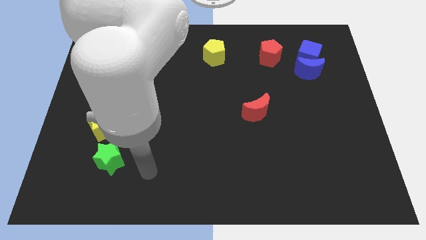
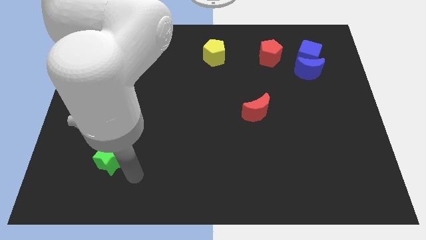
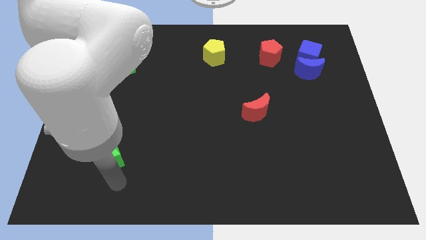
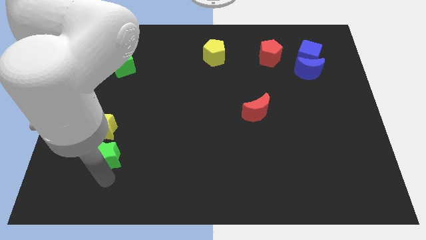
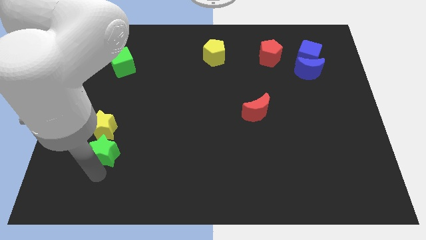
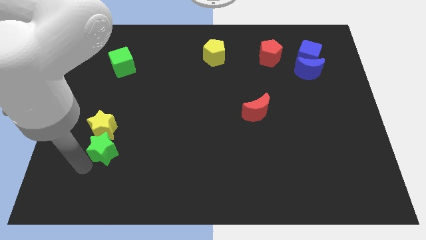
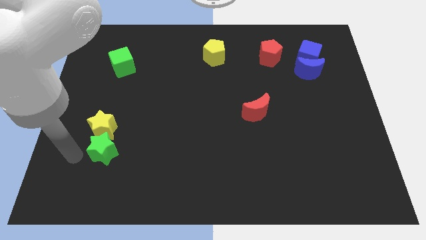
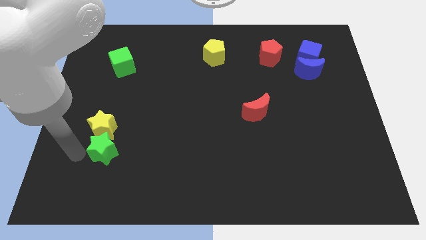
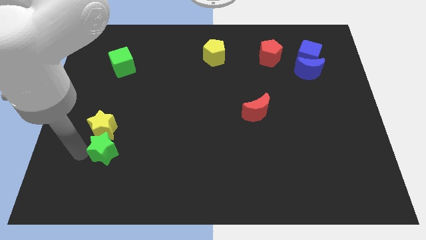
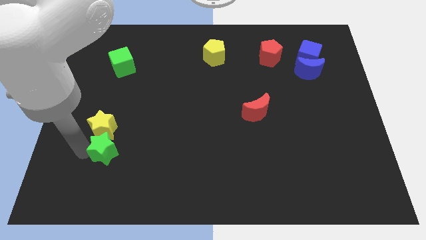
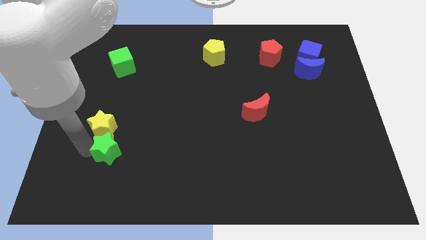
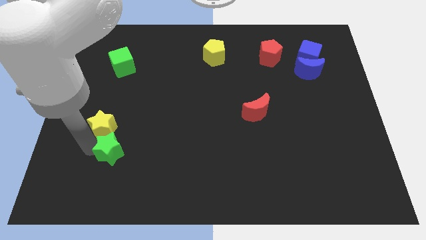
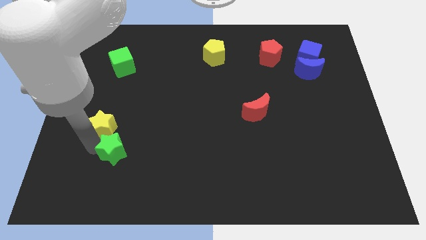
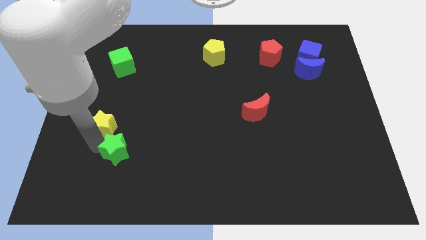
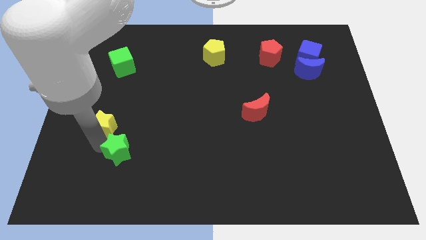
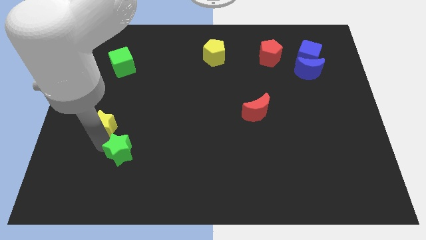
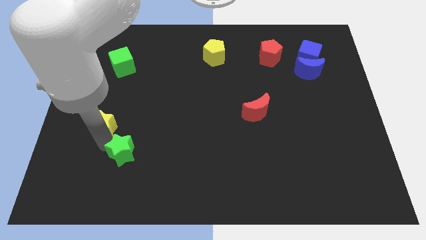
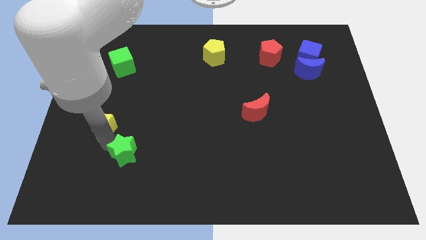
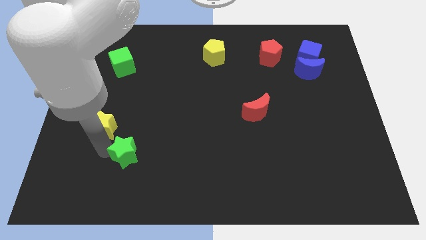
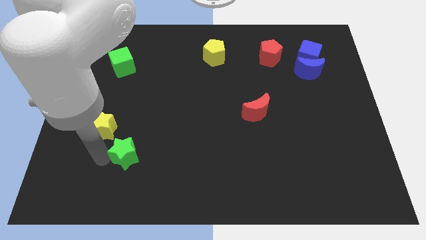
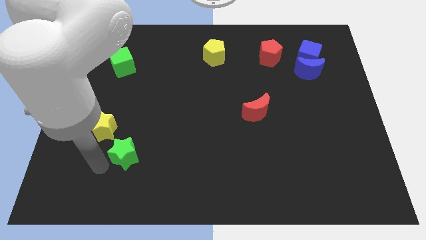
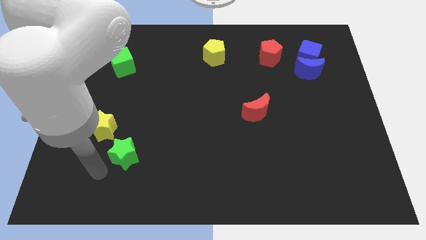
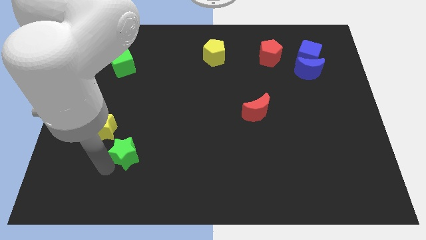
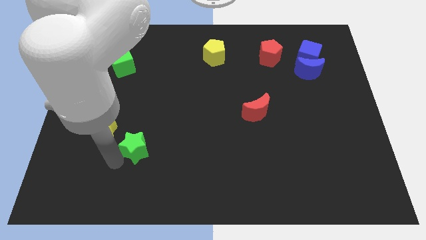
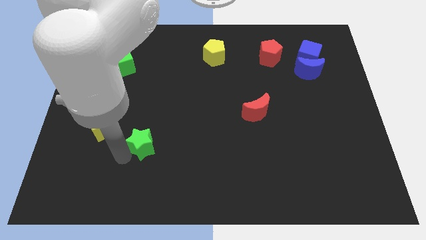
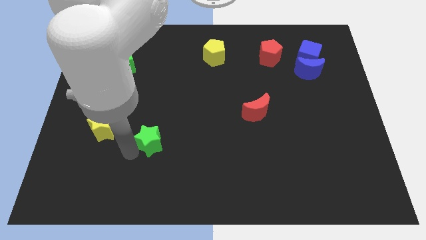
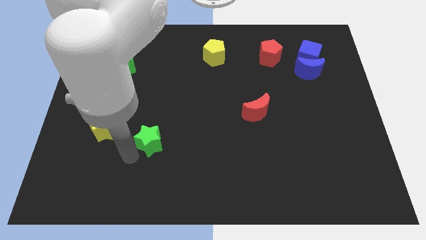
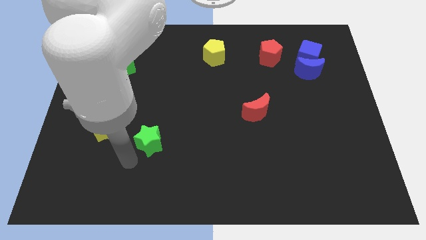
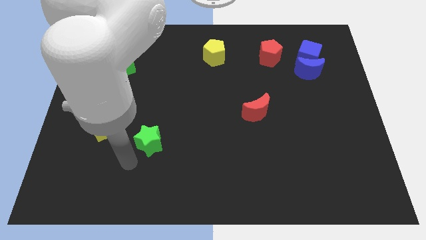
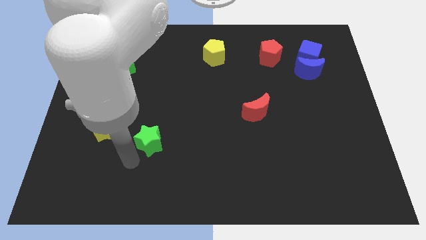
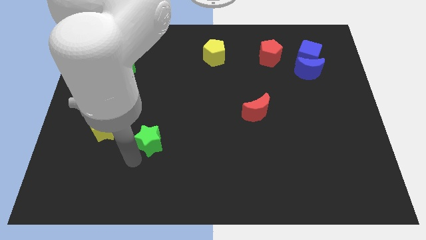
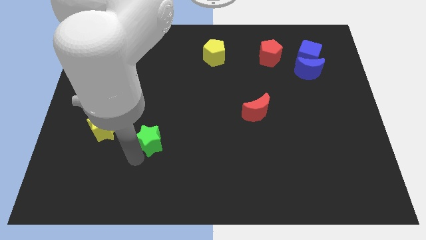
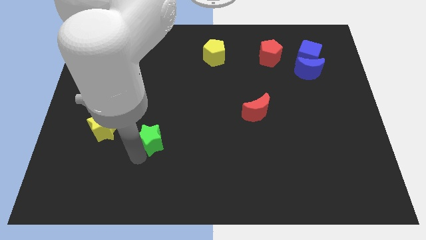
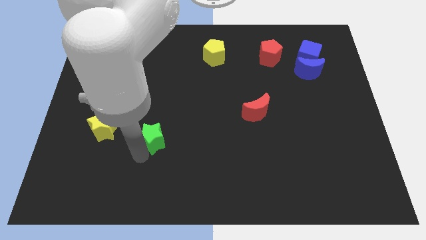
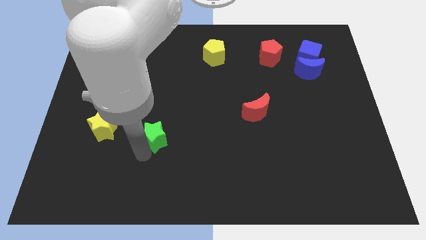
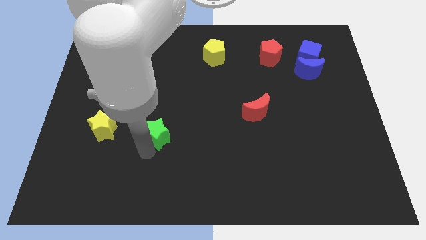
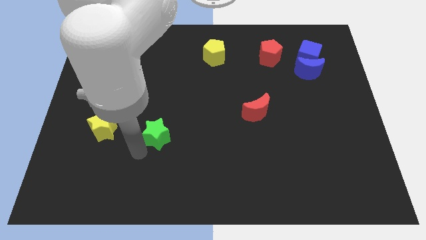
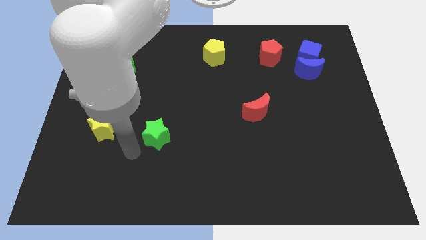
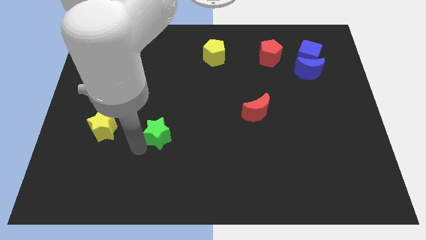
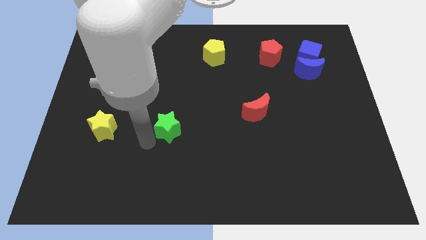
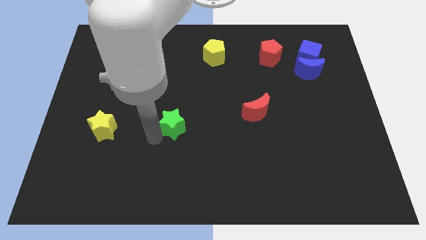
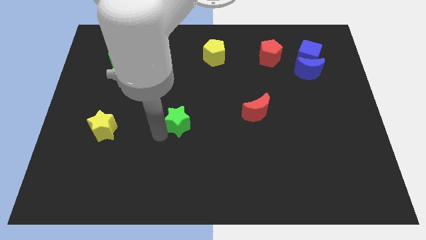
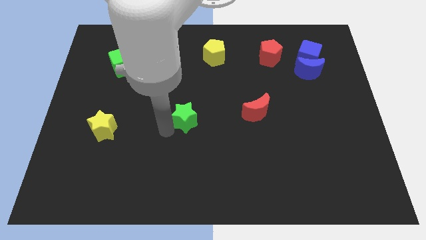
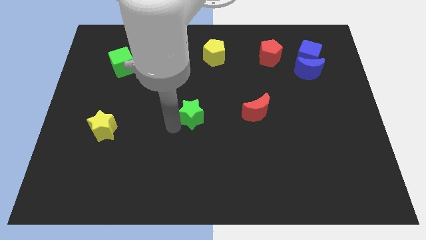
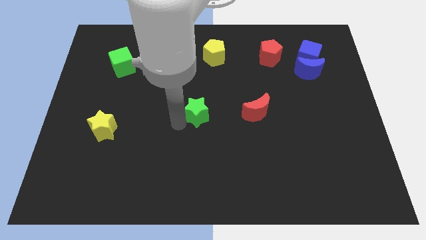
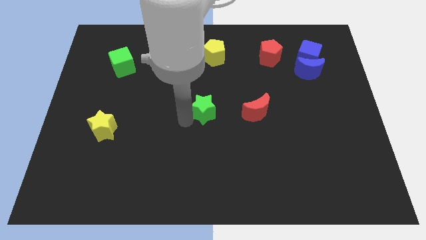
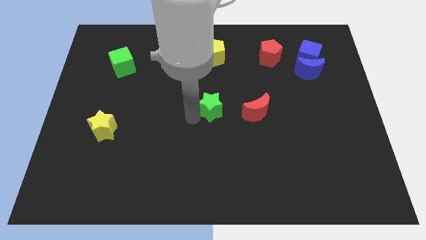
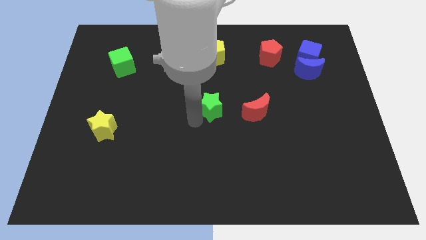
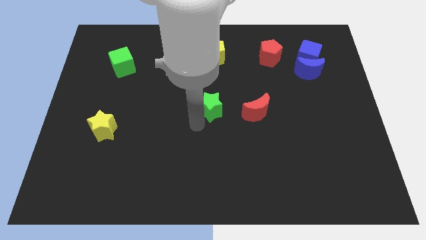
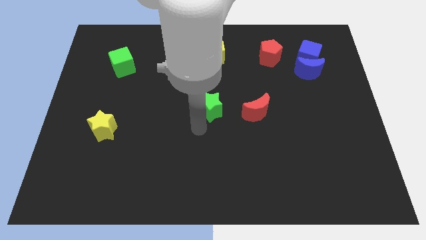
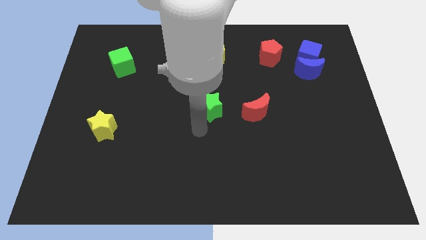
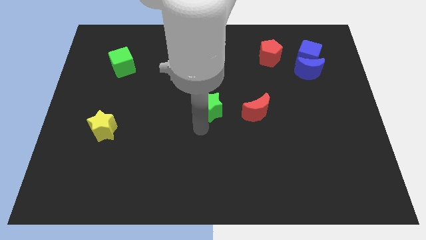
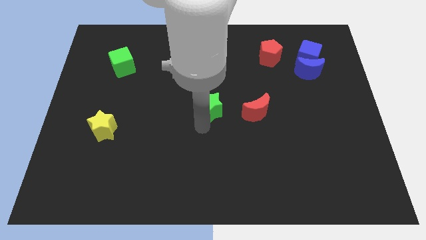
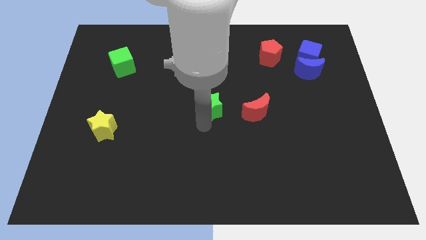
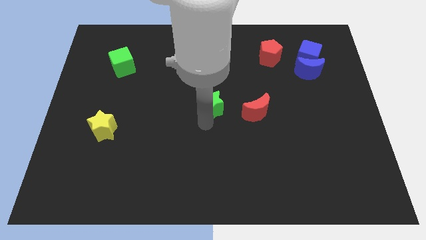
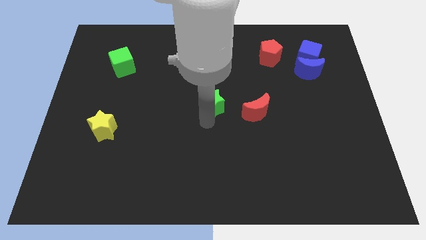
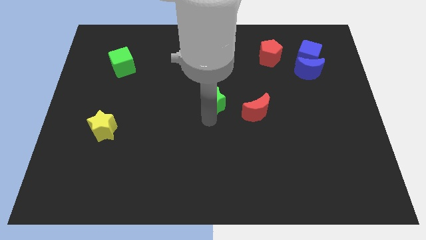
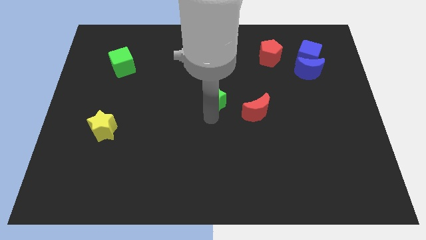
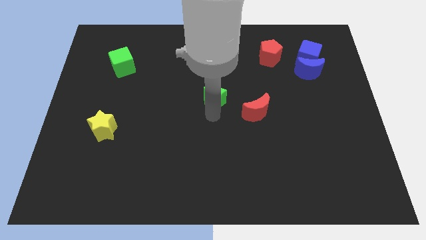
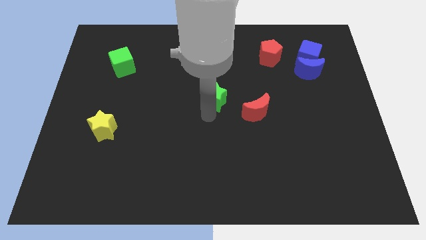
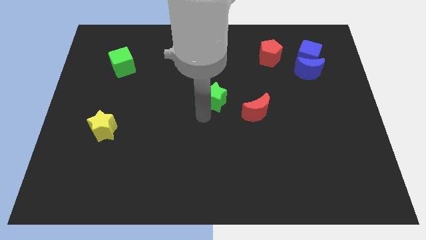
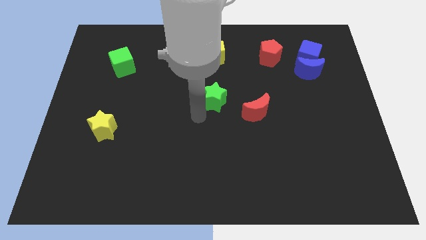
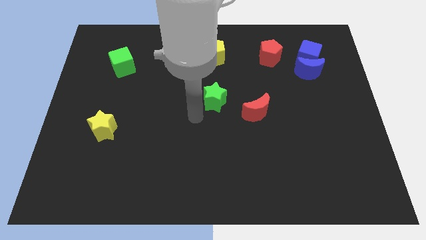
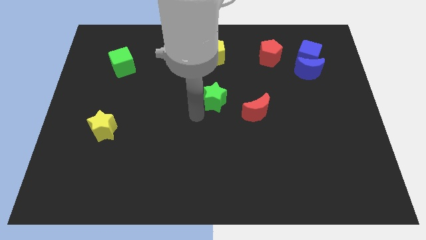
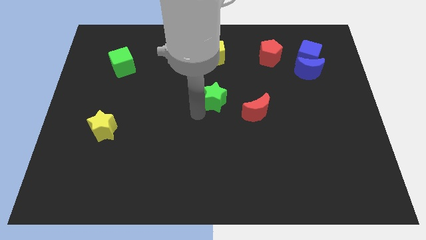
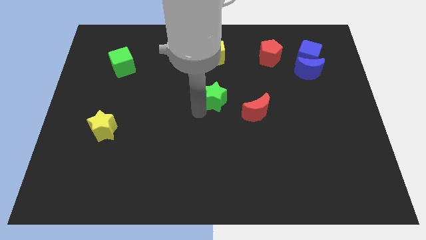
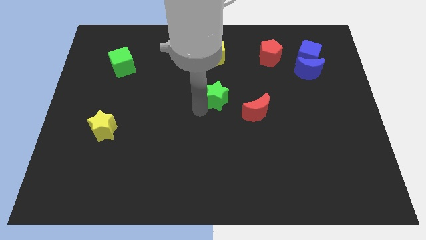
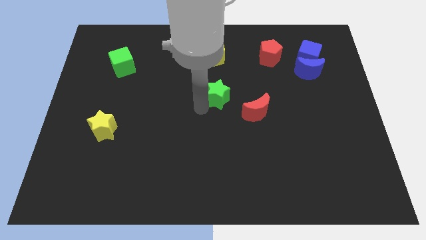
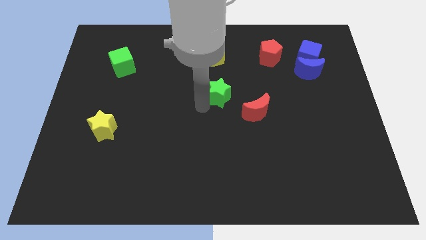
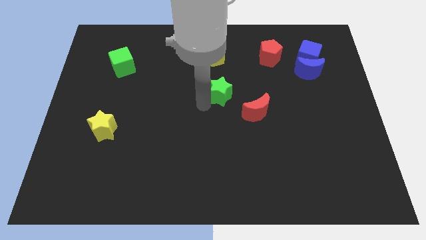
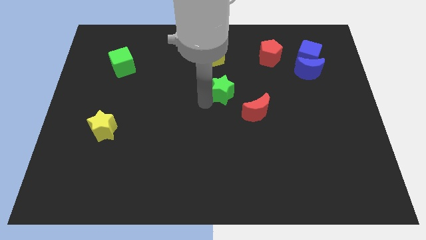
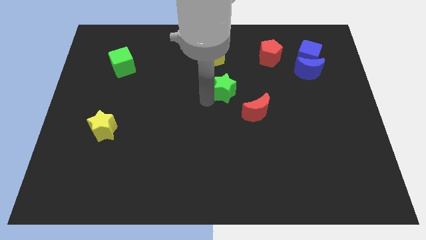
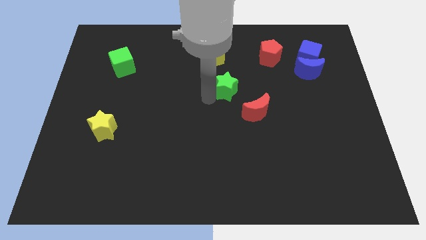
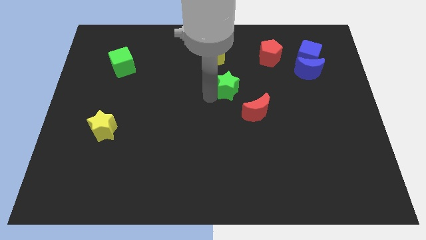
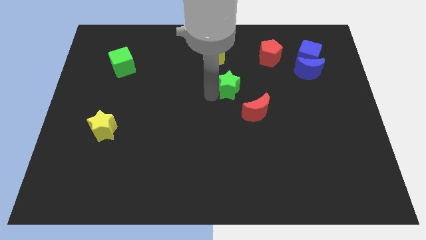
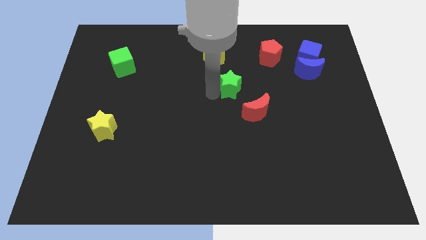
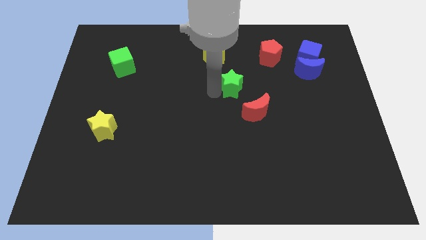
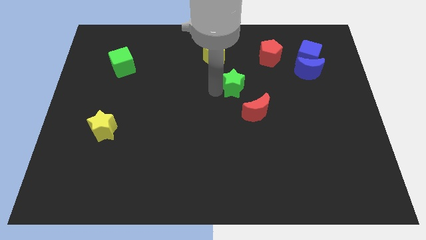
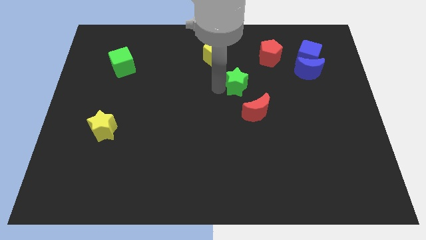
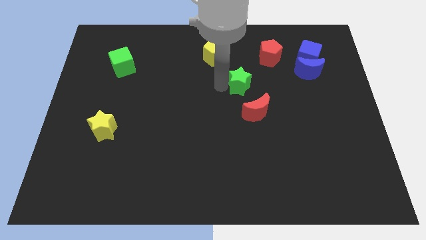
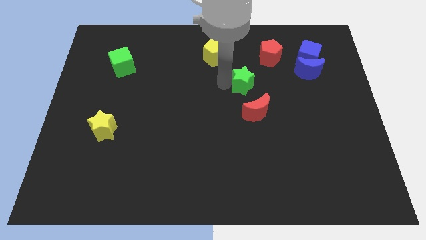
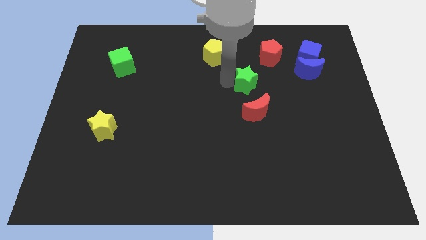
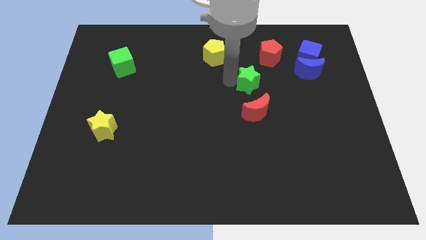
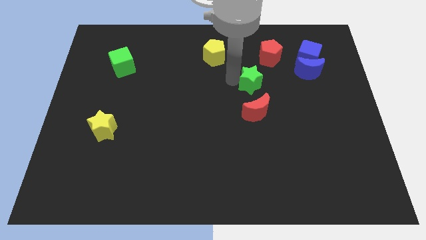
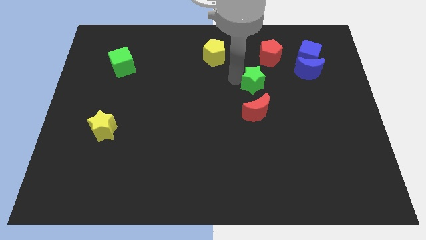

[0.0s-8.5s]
put the green star just left of the blue moon
